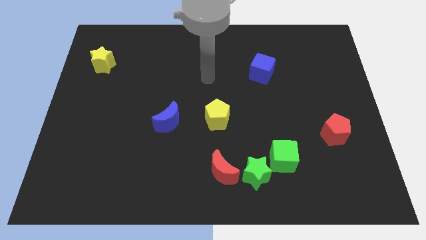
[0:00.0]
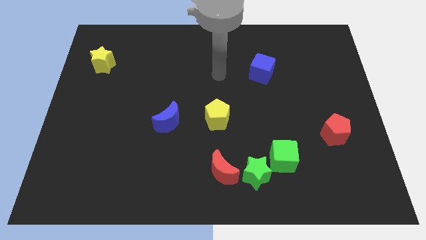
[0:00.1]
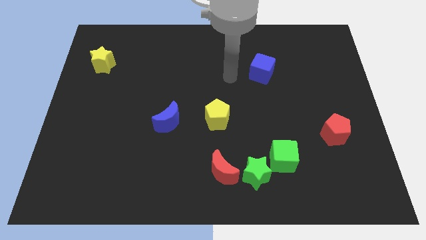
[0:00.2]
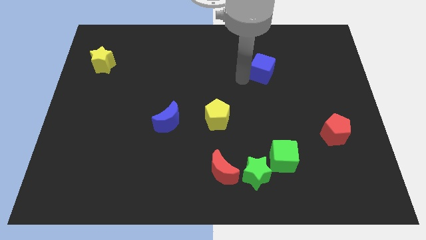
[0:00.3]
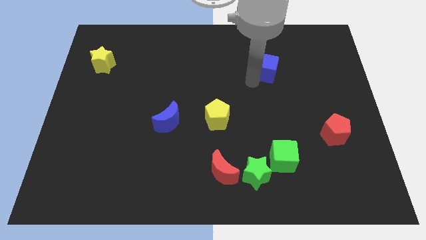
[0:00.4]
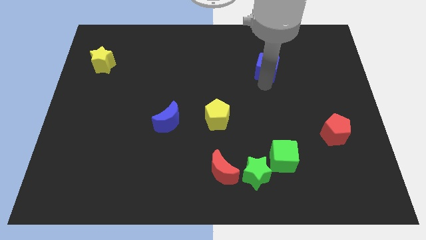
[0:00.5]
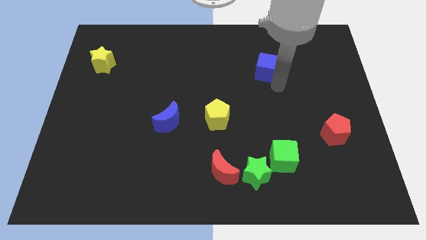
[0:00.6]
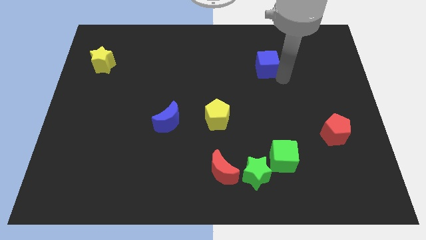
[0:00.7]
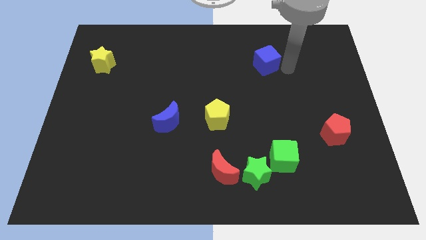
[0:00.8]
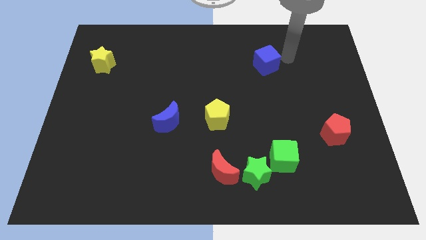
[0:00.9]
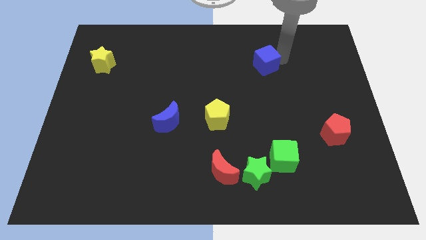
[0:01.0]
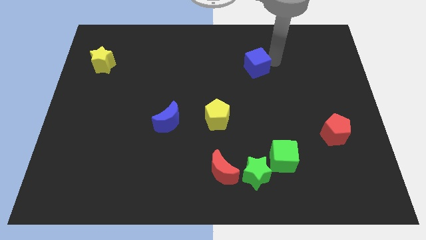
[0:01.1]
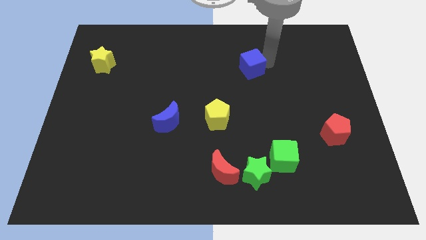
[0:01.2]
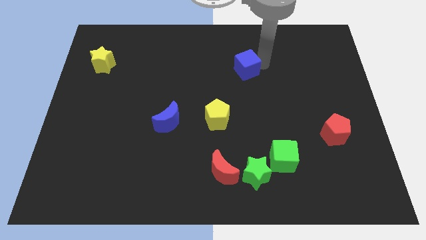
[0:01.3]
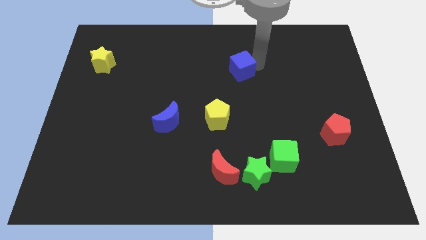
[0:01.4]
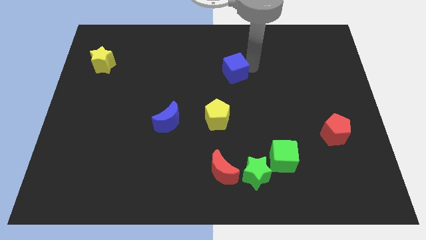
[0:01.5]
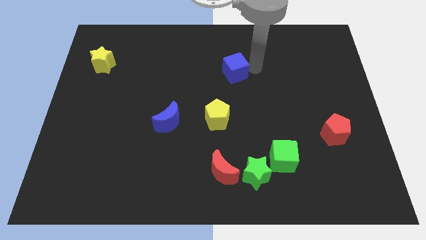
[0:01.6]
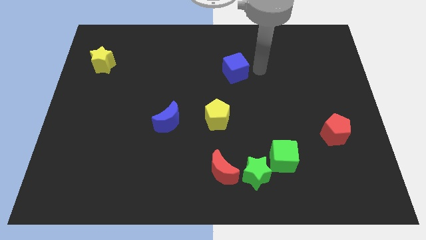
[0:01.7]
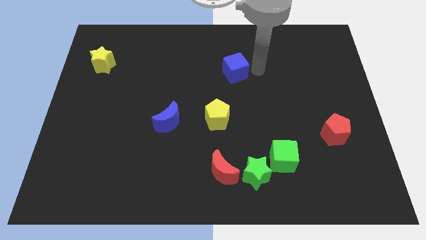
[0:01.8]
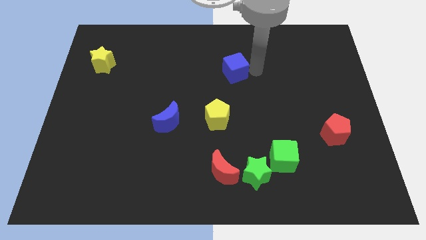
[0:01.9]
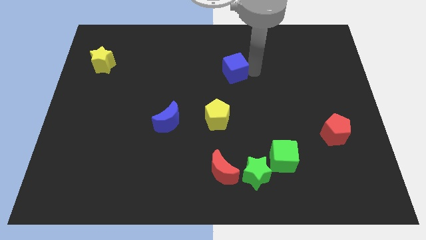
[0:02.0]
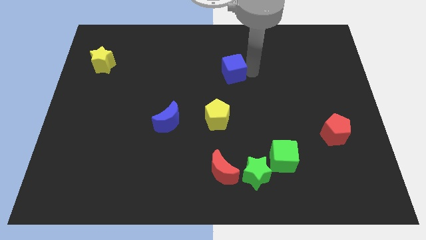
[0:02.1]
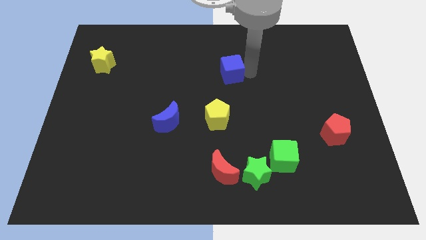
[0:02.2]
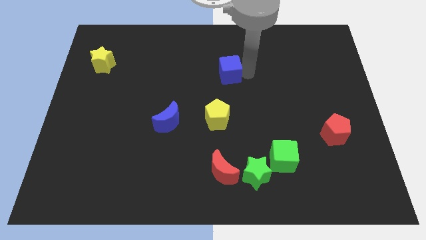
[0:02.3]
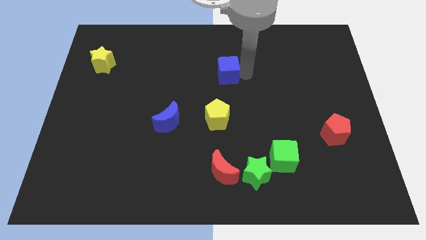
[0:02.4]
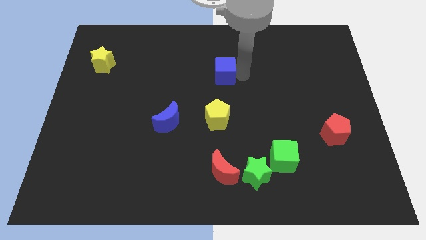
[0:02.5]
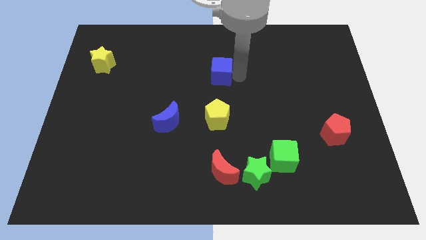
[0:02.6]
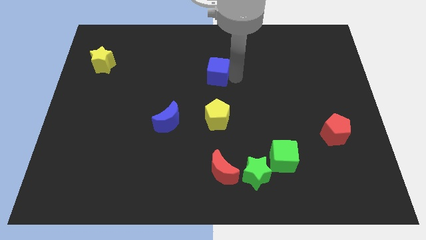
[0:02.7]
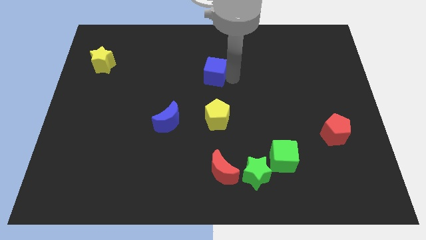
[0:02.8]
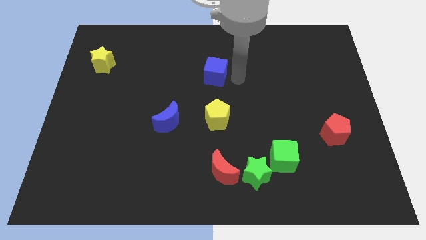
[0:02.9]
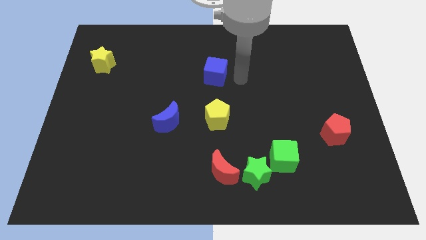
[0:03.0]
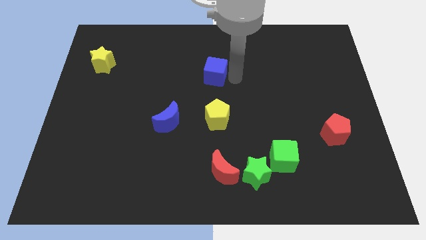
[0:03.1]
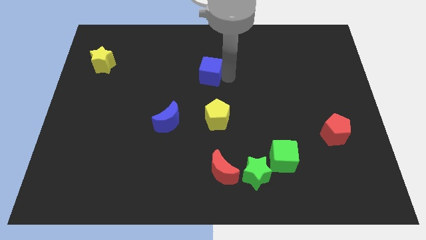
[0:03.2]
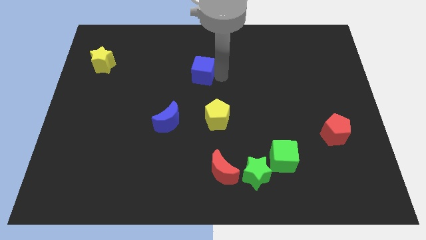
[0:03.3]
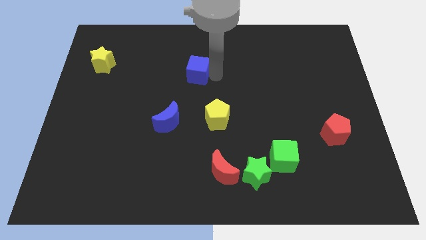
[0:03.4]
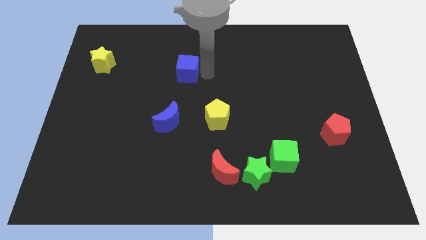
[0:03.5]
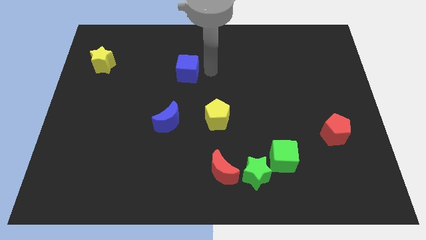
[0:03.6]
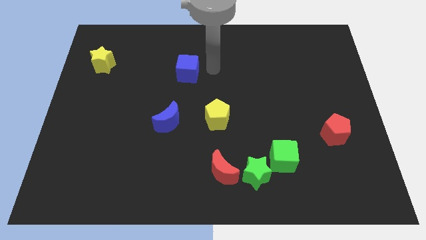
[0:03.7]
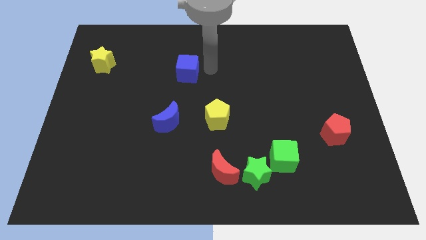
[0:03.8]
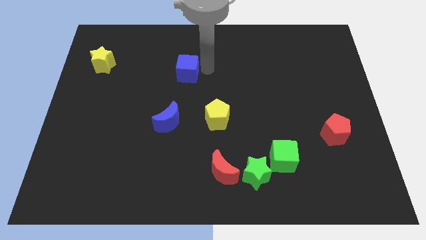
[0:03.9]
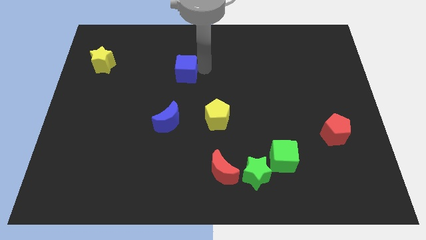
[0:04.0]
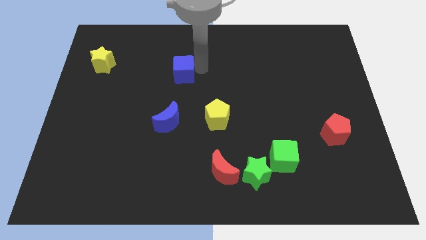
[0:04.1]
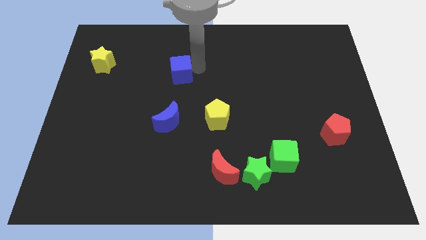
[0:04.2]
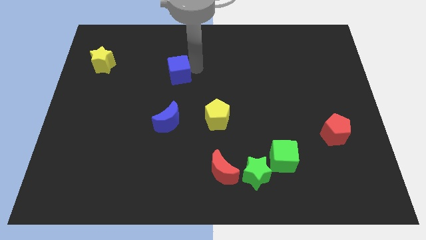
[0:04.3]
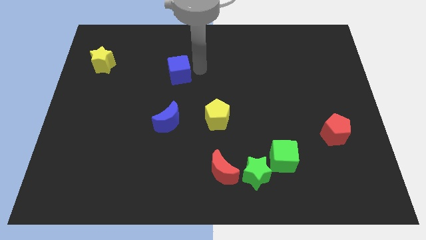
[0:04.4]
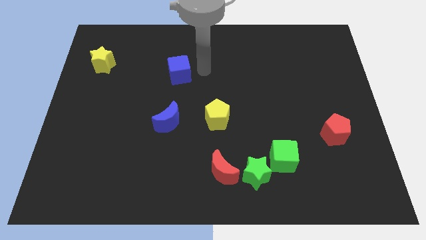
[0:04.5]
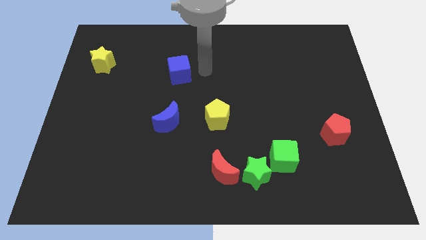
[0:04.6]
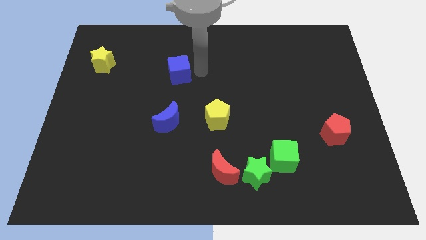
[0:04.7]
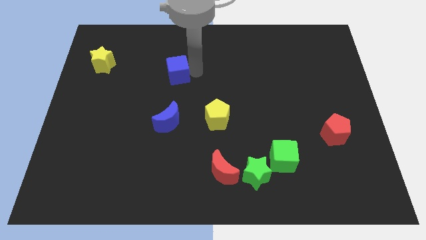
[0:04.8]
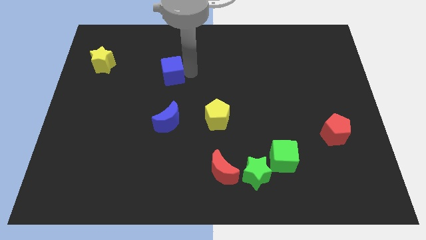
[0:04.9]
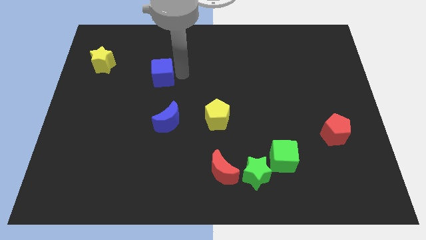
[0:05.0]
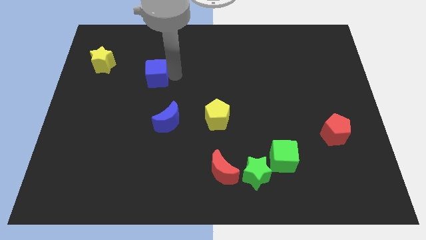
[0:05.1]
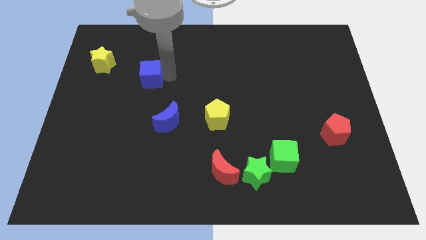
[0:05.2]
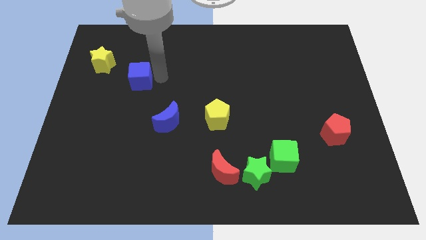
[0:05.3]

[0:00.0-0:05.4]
put the blue cube to the bottom right side of the yellow star

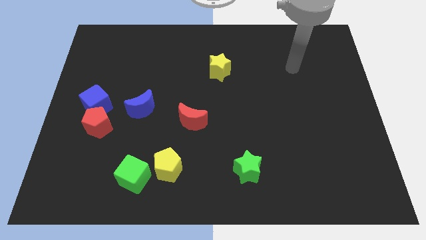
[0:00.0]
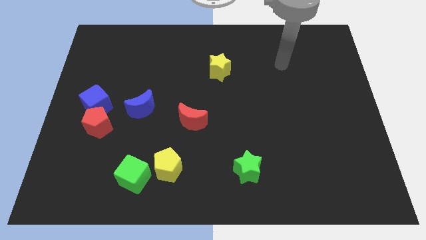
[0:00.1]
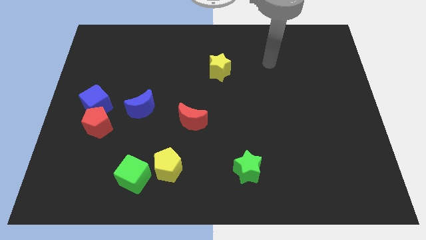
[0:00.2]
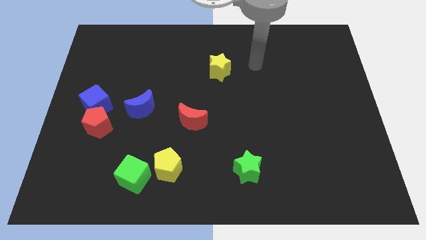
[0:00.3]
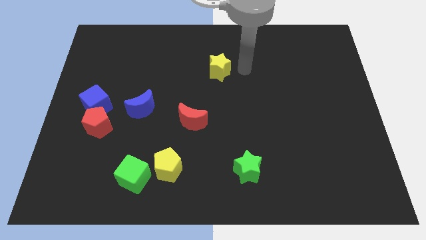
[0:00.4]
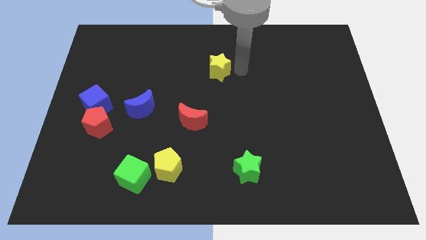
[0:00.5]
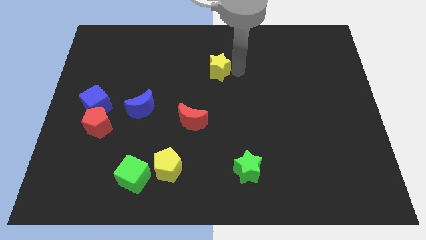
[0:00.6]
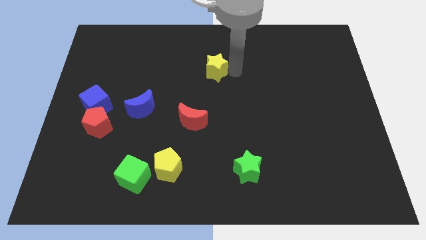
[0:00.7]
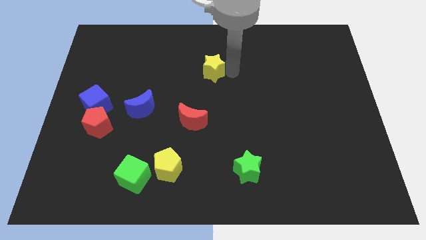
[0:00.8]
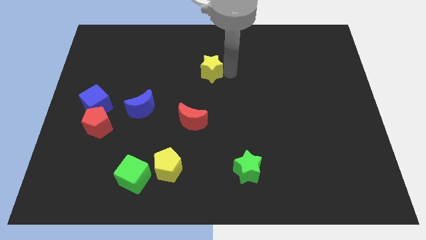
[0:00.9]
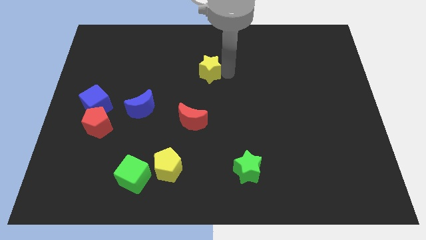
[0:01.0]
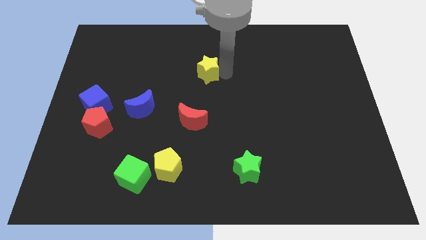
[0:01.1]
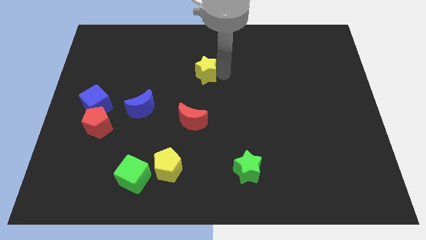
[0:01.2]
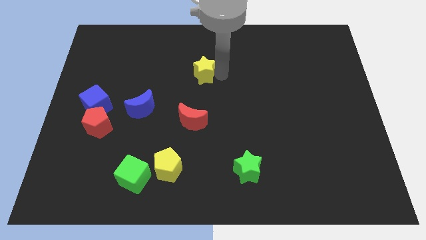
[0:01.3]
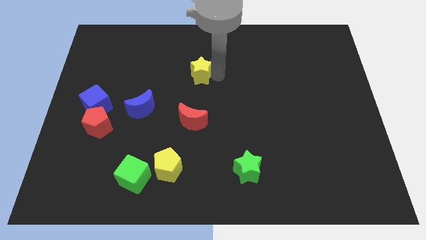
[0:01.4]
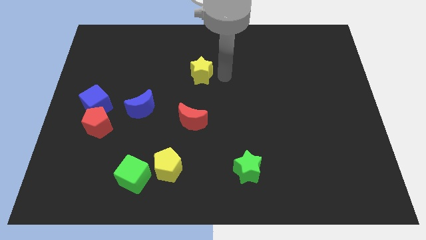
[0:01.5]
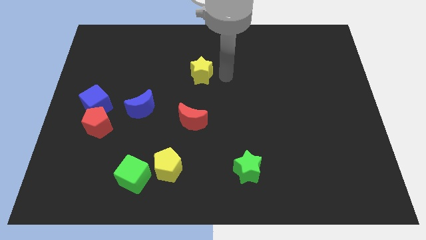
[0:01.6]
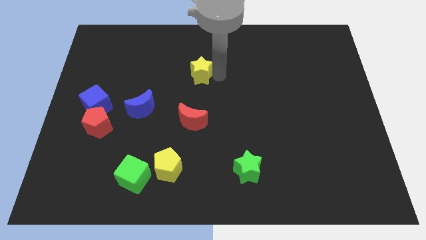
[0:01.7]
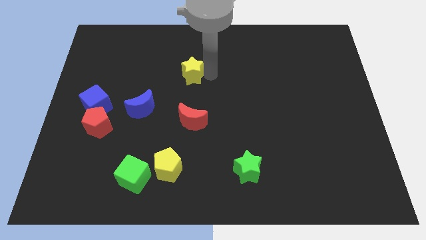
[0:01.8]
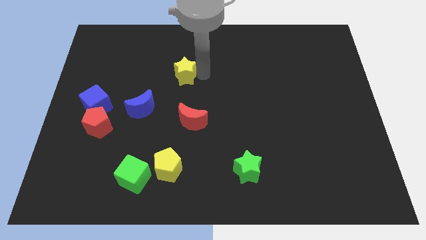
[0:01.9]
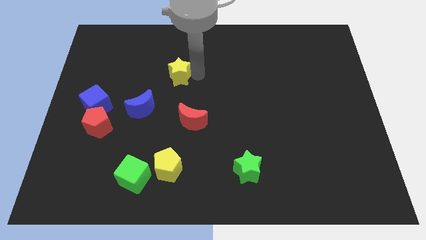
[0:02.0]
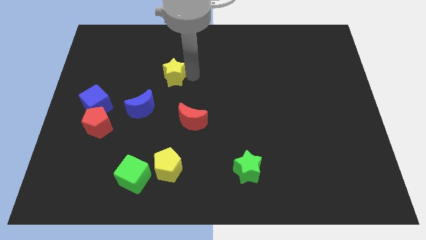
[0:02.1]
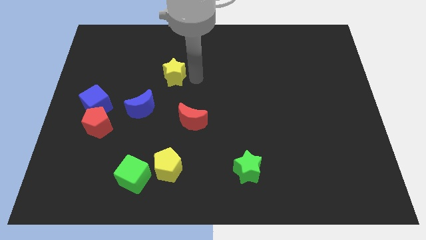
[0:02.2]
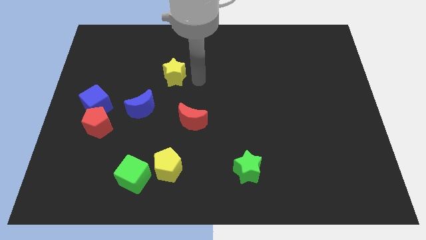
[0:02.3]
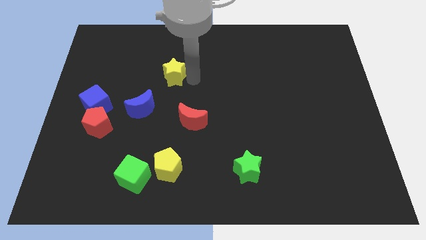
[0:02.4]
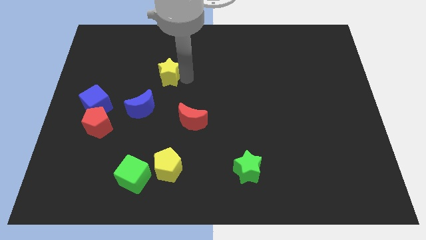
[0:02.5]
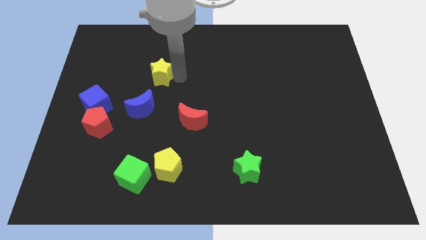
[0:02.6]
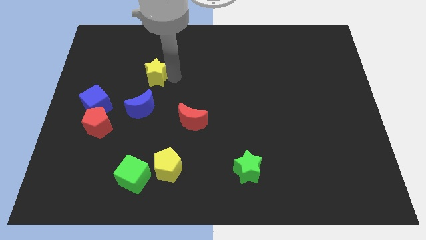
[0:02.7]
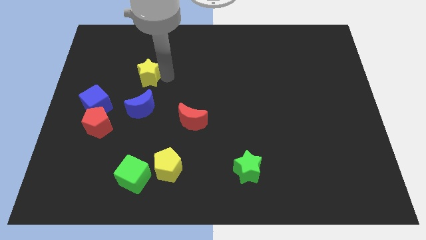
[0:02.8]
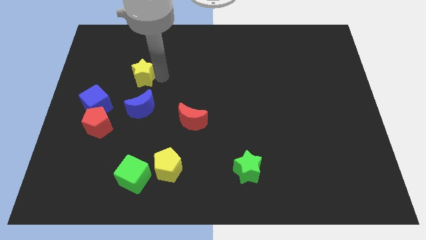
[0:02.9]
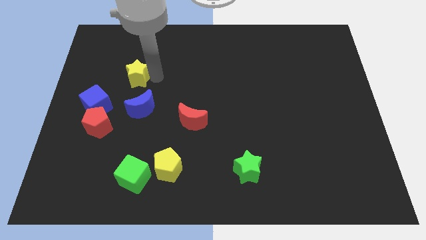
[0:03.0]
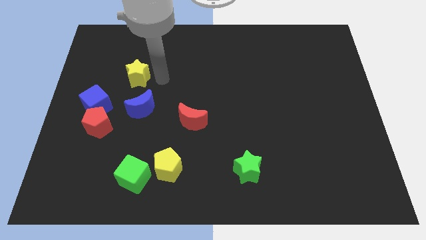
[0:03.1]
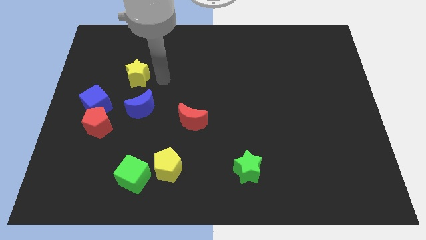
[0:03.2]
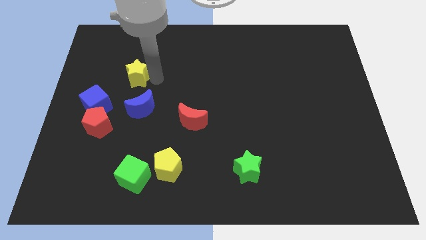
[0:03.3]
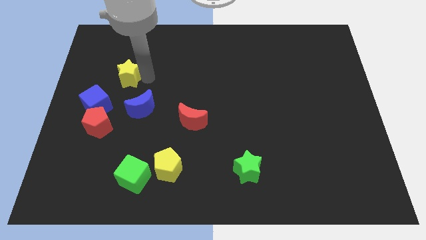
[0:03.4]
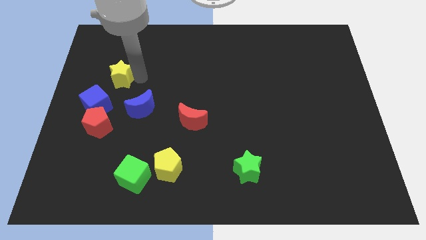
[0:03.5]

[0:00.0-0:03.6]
slide the yellow star to the top of the blue cube
